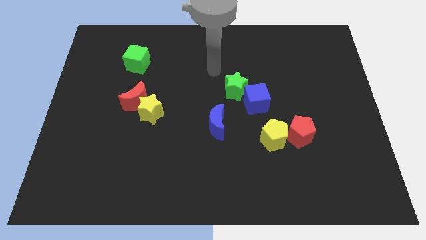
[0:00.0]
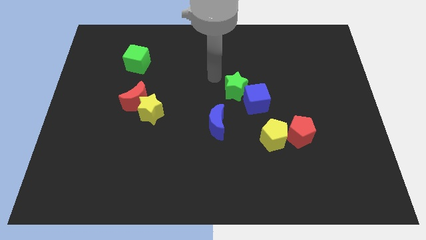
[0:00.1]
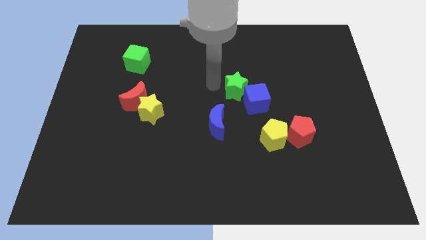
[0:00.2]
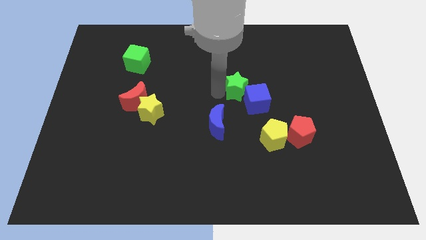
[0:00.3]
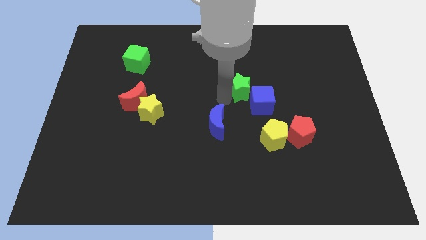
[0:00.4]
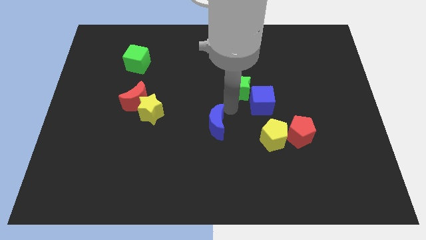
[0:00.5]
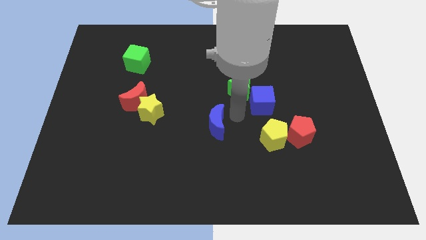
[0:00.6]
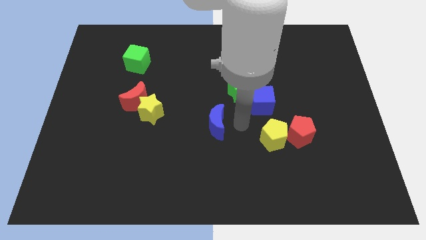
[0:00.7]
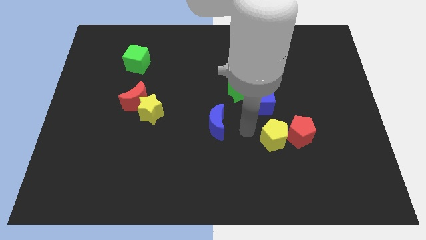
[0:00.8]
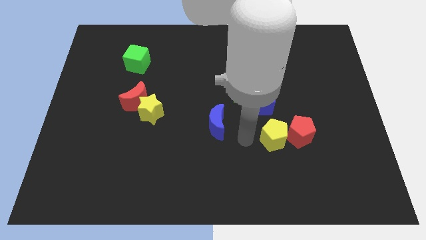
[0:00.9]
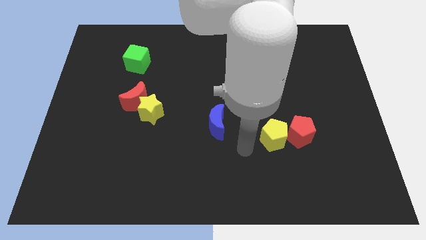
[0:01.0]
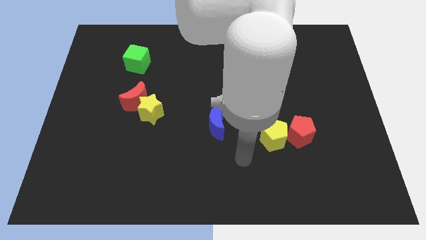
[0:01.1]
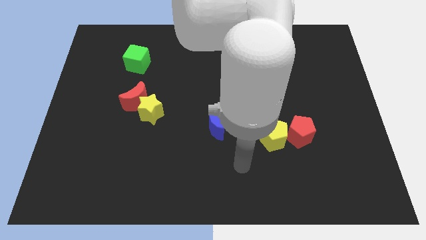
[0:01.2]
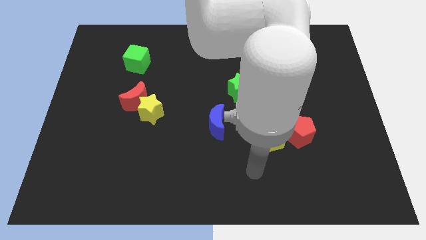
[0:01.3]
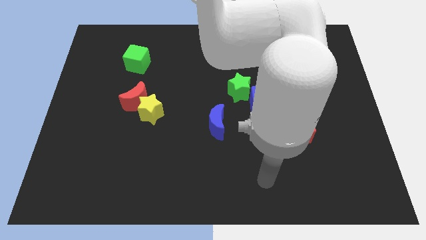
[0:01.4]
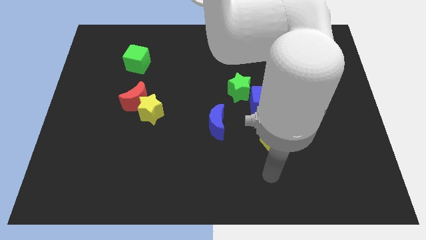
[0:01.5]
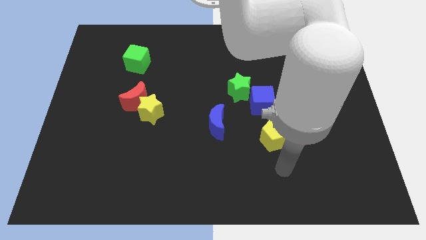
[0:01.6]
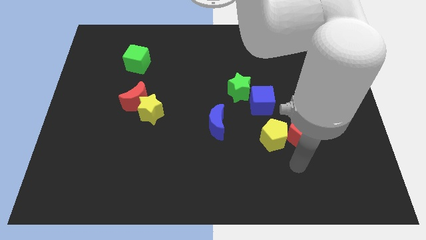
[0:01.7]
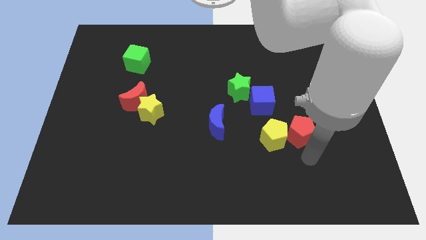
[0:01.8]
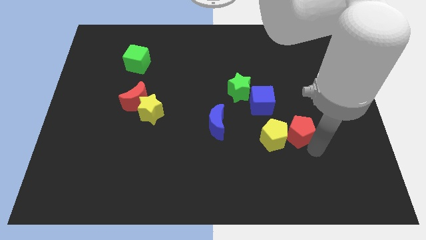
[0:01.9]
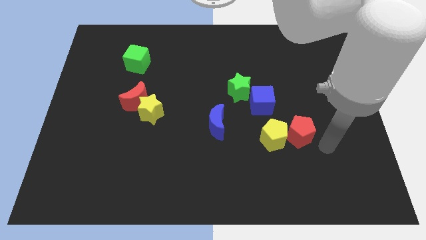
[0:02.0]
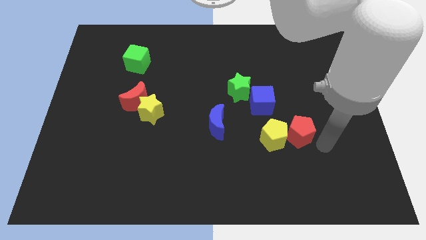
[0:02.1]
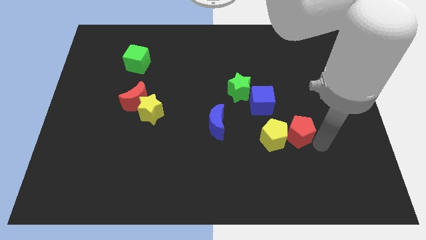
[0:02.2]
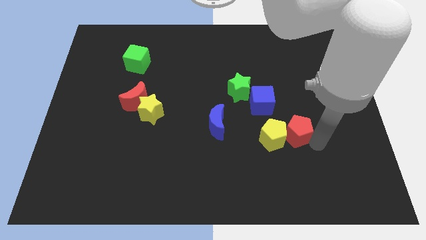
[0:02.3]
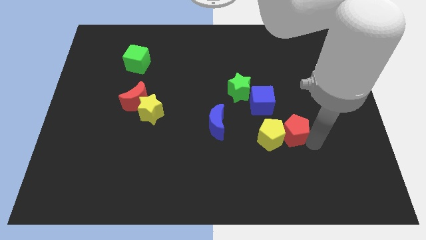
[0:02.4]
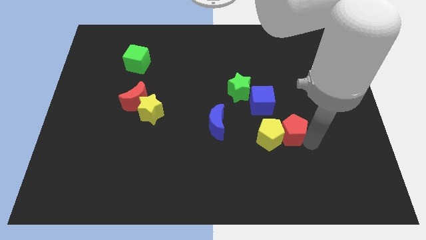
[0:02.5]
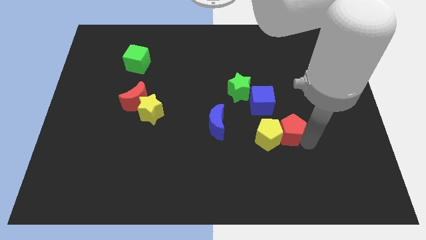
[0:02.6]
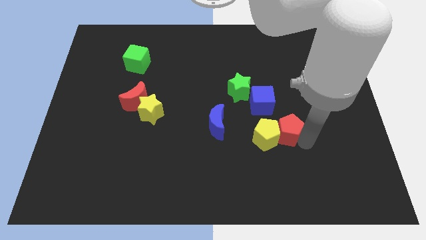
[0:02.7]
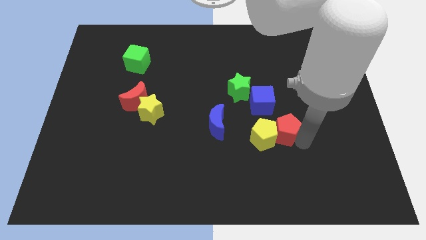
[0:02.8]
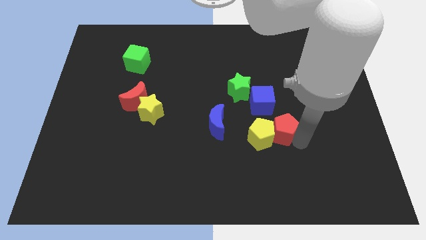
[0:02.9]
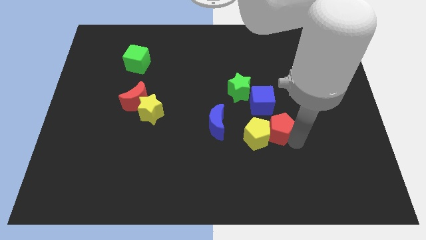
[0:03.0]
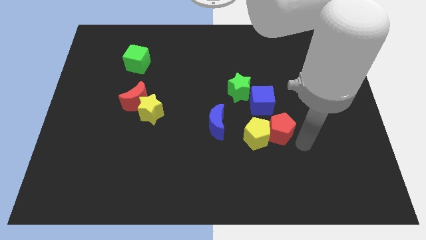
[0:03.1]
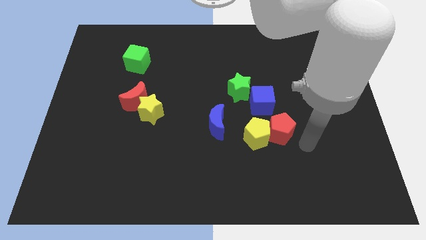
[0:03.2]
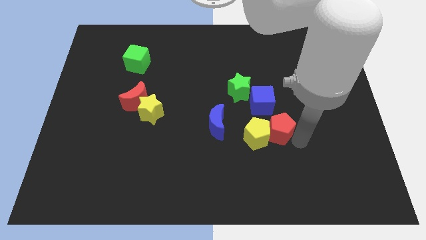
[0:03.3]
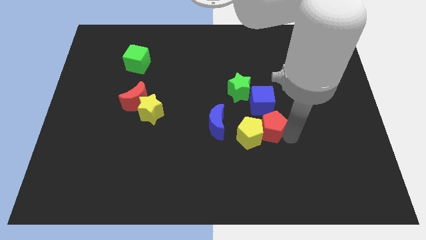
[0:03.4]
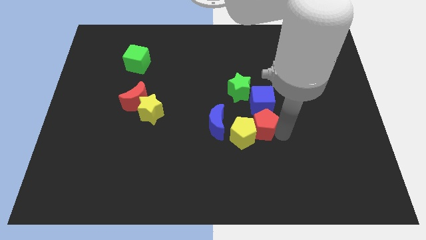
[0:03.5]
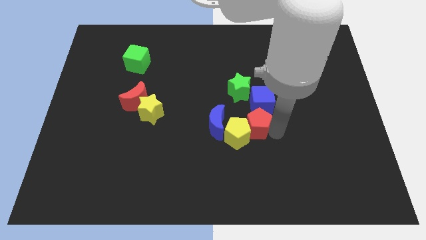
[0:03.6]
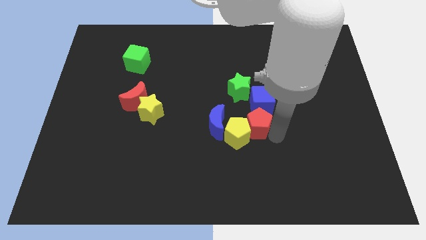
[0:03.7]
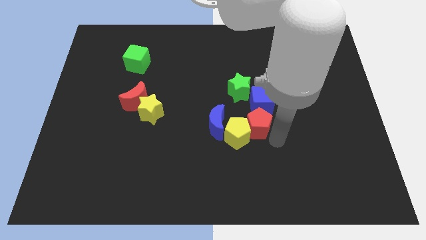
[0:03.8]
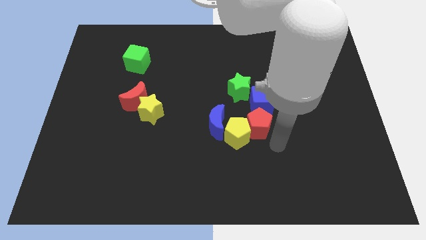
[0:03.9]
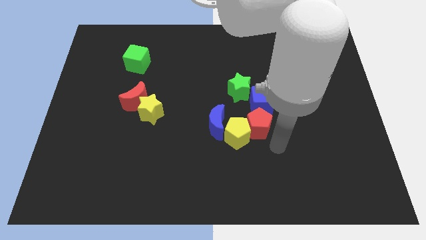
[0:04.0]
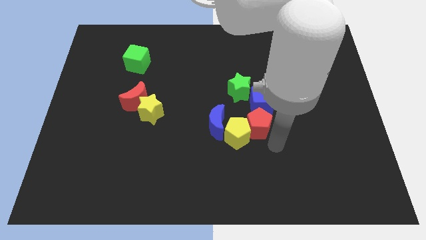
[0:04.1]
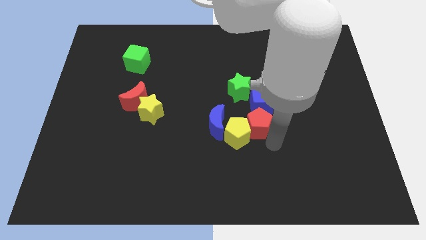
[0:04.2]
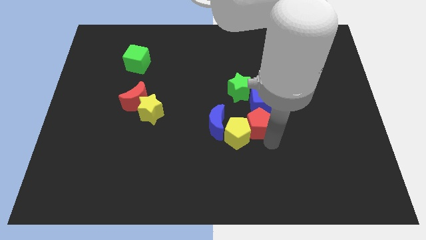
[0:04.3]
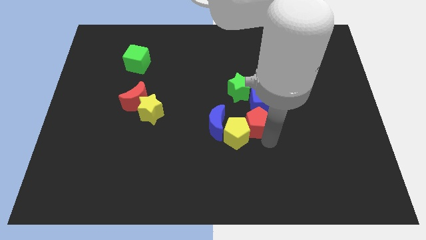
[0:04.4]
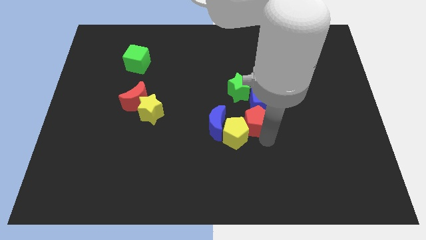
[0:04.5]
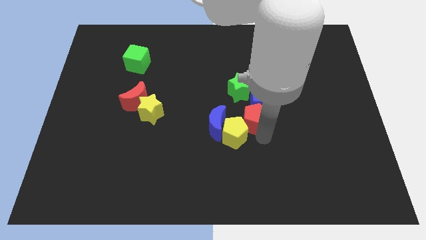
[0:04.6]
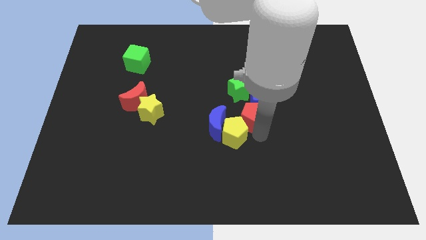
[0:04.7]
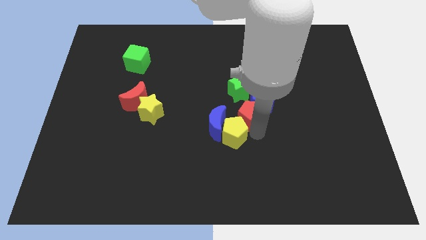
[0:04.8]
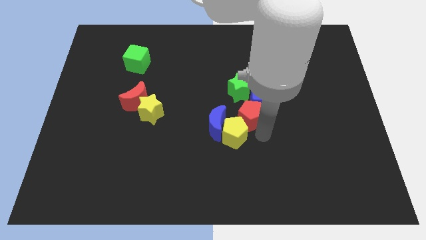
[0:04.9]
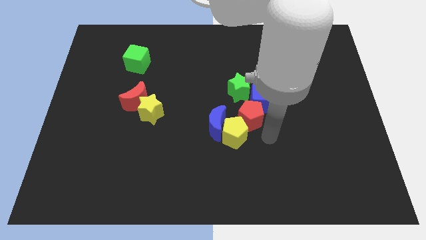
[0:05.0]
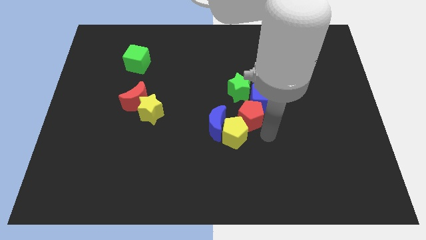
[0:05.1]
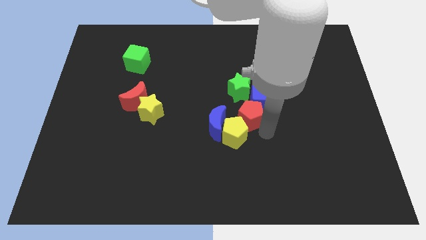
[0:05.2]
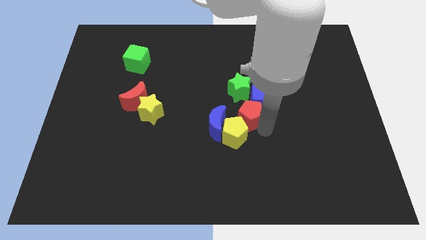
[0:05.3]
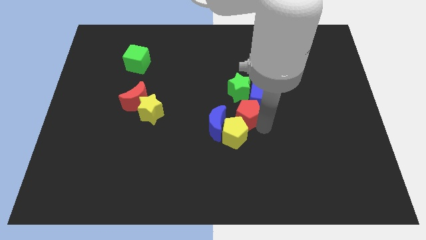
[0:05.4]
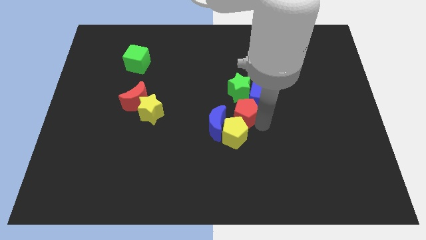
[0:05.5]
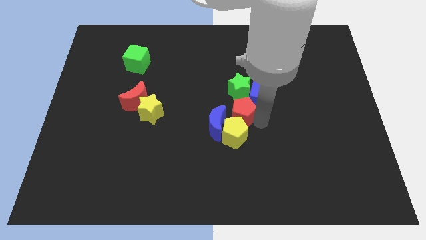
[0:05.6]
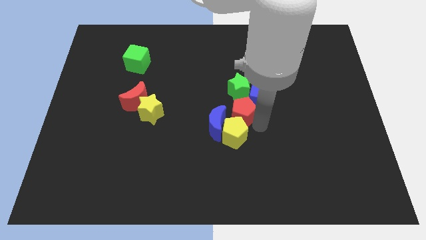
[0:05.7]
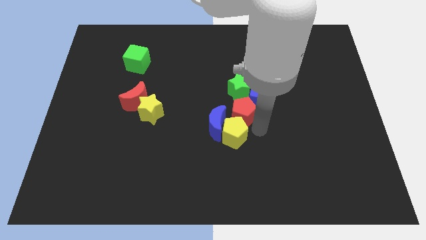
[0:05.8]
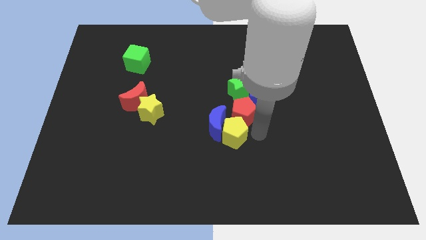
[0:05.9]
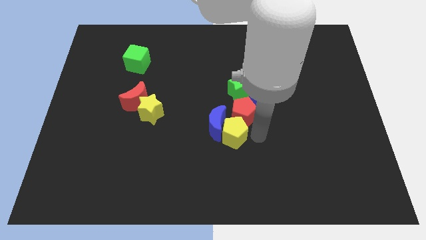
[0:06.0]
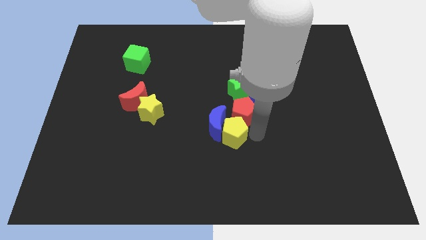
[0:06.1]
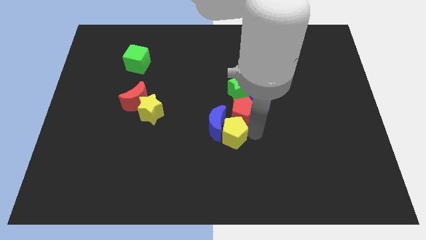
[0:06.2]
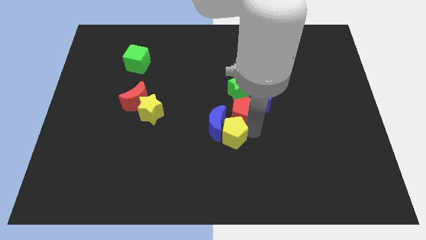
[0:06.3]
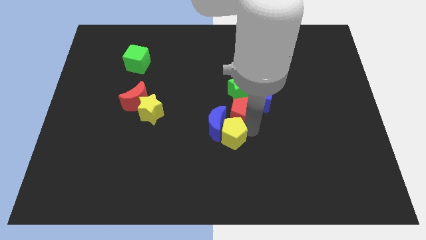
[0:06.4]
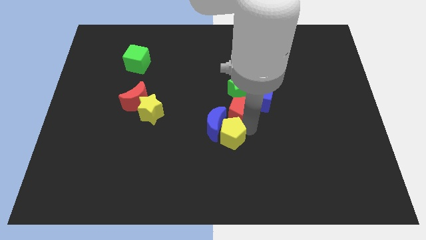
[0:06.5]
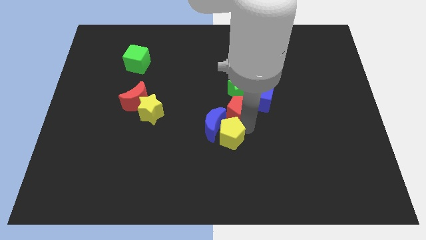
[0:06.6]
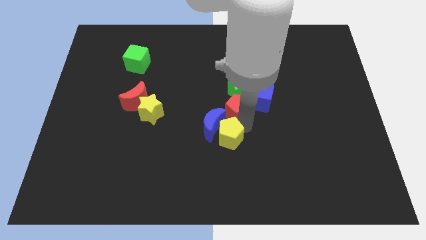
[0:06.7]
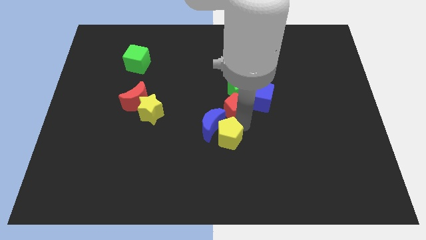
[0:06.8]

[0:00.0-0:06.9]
move the red pentagon towards the green star

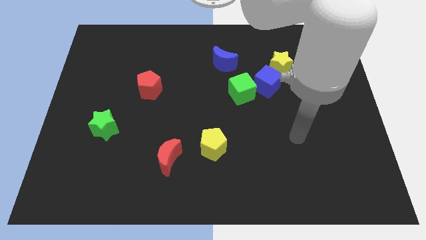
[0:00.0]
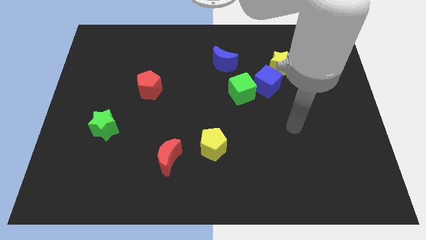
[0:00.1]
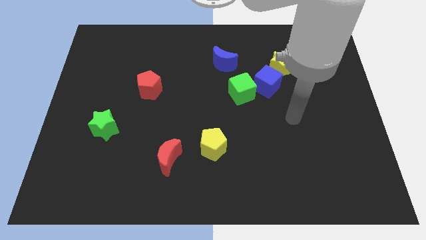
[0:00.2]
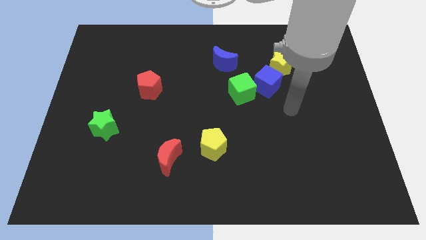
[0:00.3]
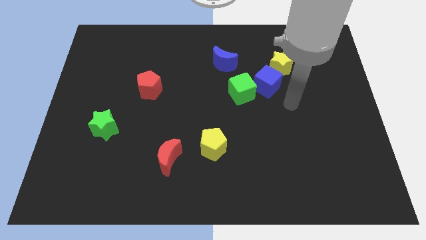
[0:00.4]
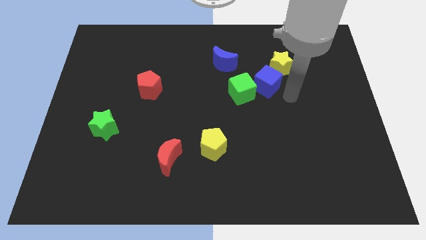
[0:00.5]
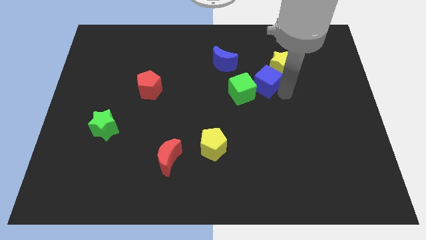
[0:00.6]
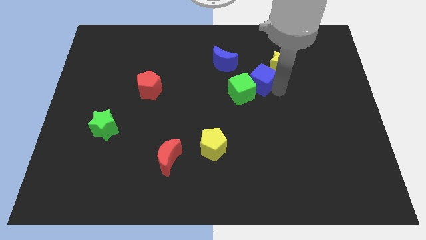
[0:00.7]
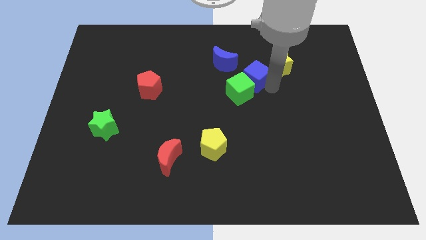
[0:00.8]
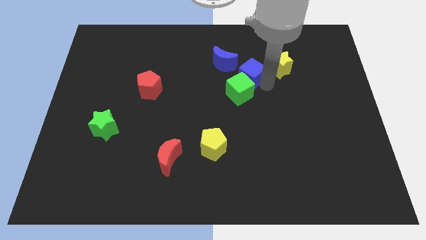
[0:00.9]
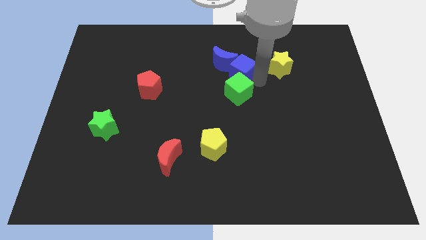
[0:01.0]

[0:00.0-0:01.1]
put the blue cube to the blue moon
